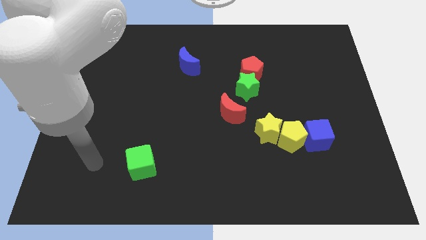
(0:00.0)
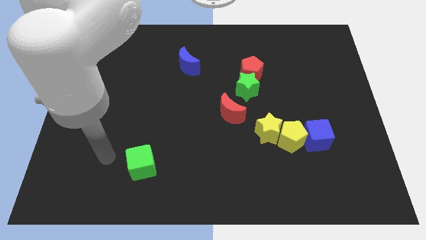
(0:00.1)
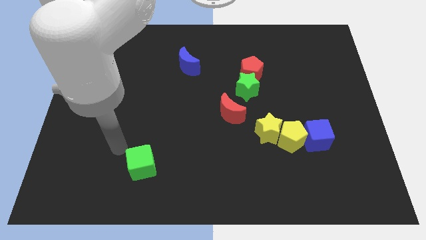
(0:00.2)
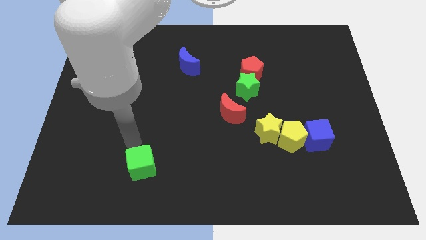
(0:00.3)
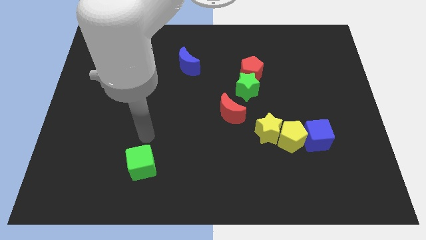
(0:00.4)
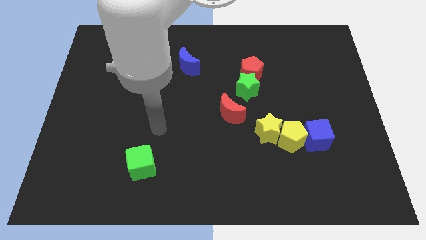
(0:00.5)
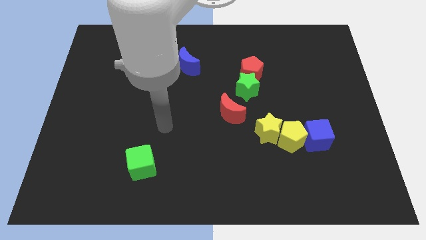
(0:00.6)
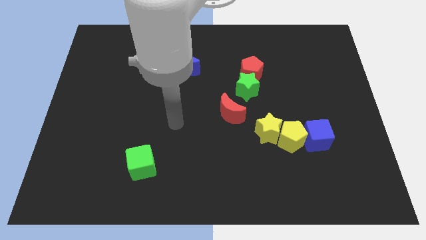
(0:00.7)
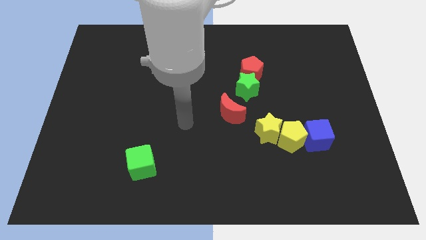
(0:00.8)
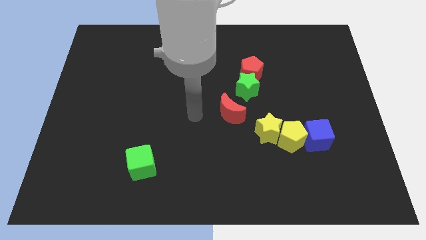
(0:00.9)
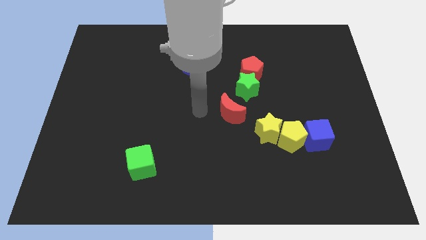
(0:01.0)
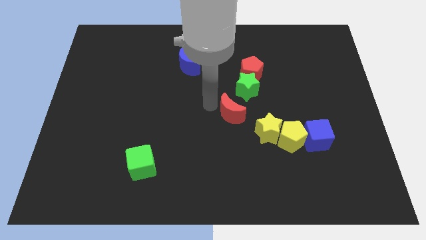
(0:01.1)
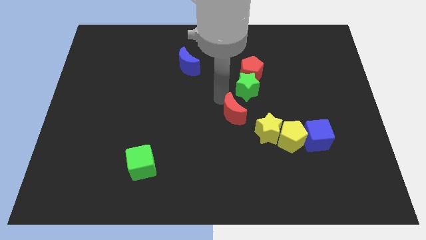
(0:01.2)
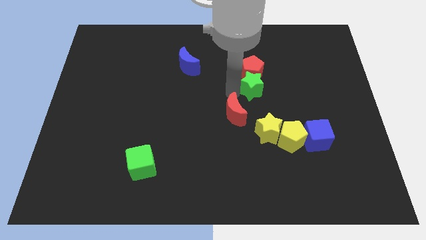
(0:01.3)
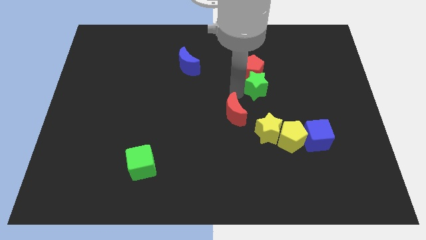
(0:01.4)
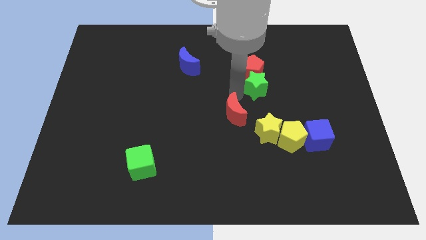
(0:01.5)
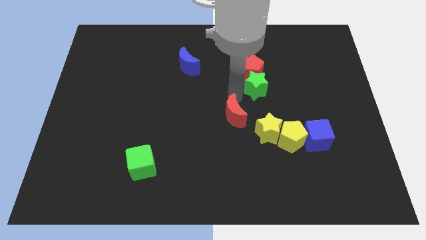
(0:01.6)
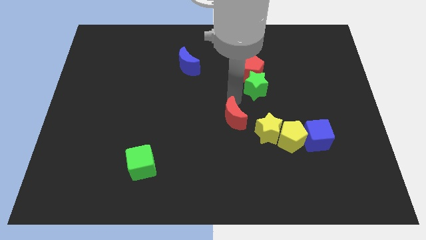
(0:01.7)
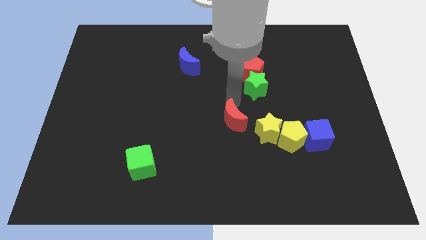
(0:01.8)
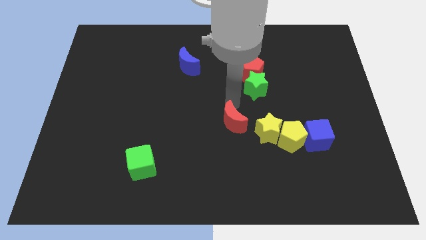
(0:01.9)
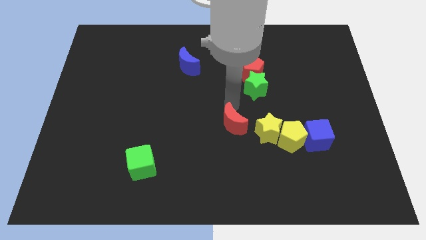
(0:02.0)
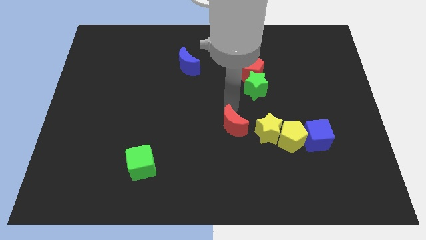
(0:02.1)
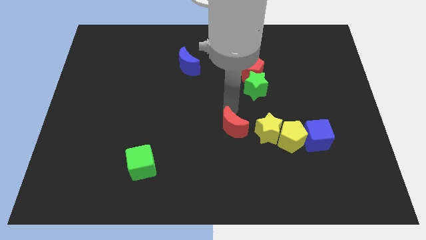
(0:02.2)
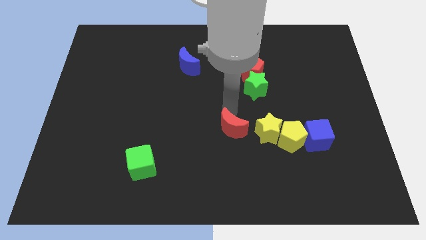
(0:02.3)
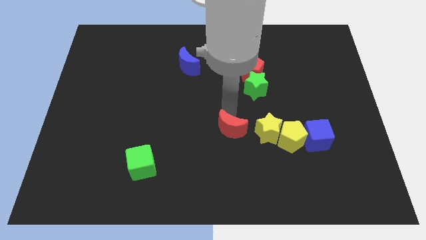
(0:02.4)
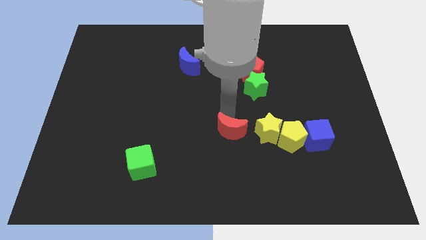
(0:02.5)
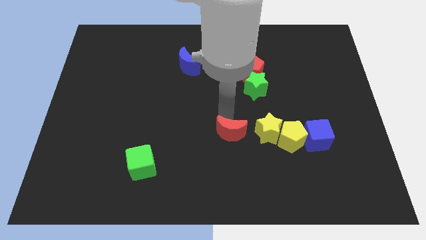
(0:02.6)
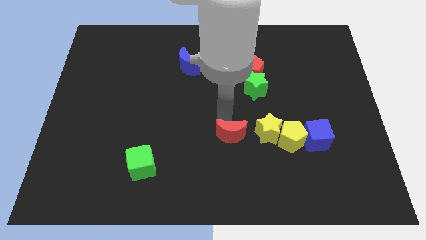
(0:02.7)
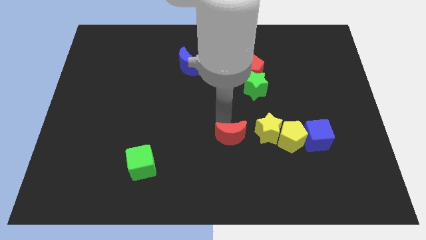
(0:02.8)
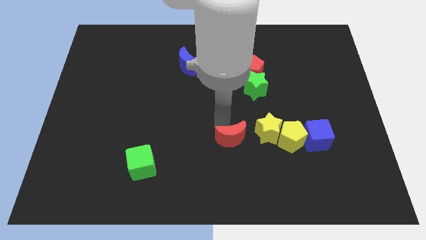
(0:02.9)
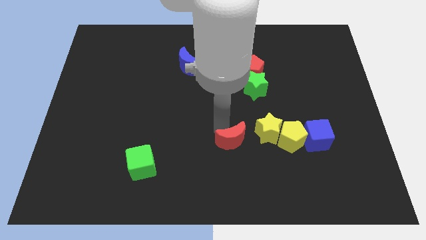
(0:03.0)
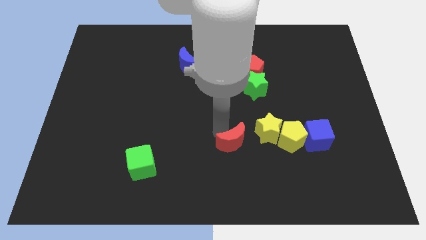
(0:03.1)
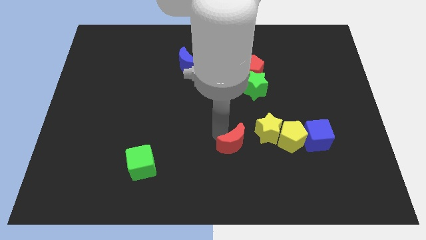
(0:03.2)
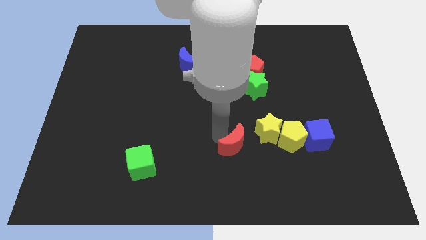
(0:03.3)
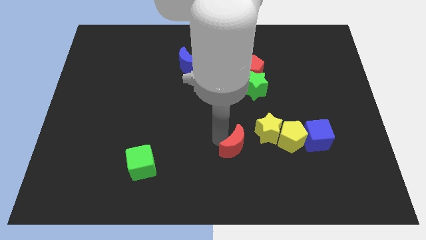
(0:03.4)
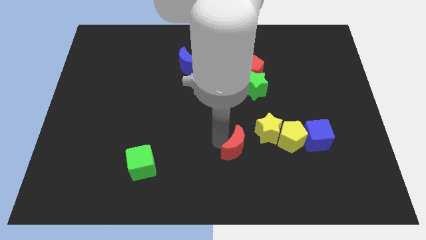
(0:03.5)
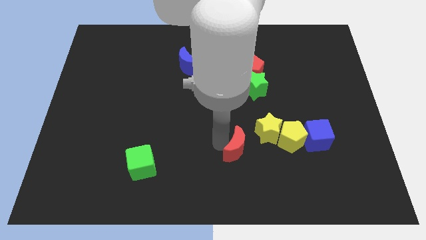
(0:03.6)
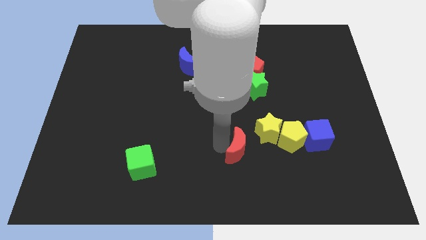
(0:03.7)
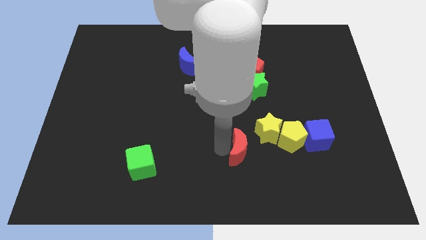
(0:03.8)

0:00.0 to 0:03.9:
push the red moon somewhat down and right

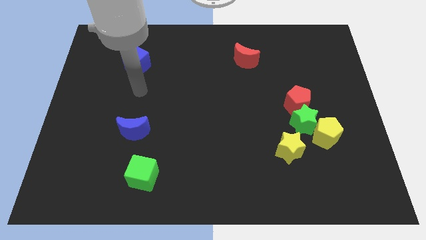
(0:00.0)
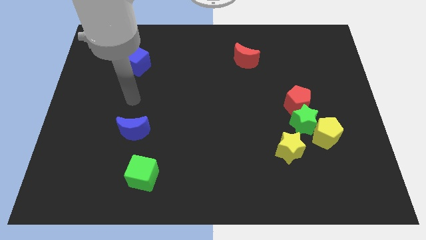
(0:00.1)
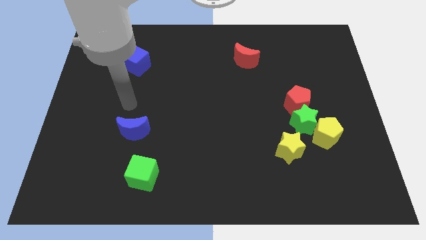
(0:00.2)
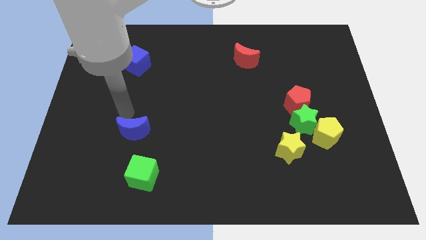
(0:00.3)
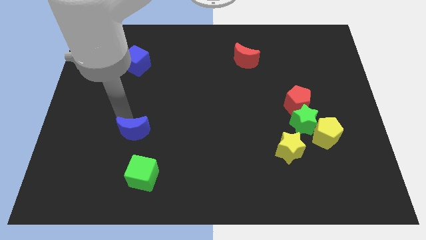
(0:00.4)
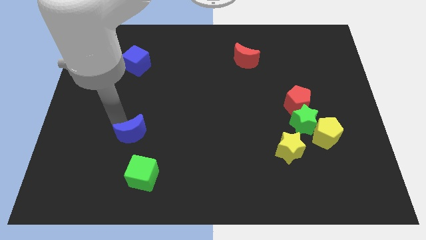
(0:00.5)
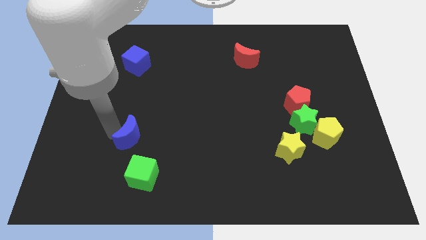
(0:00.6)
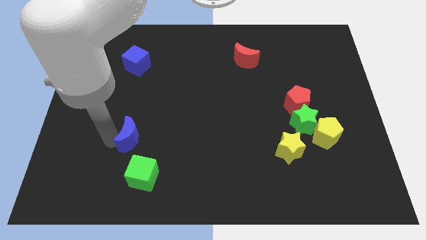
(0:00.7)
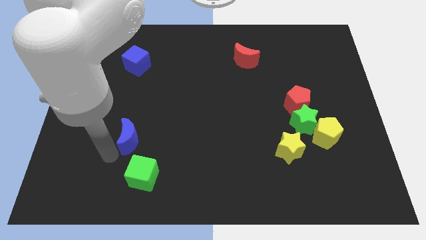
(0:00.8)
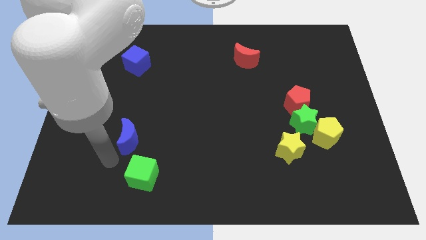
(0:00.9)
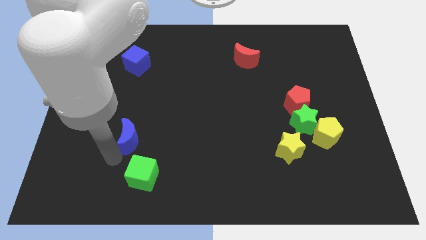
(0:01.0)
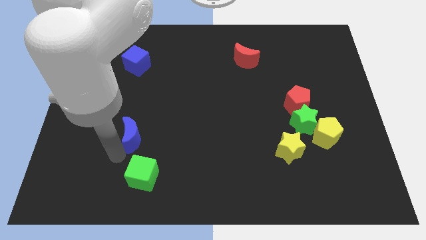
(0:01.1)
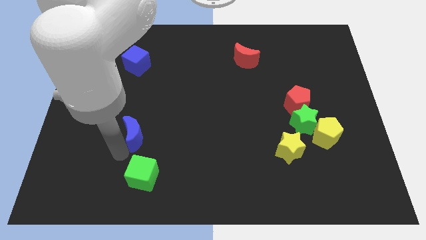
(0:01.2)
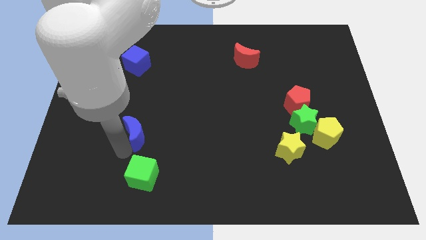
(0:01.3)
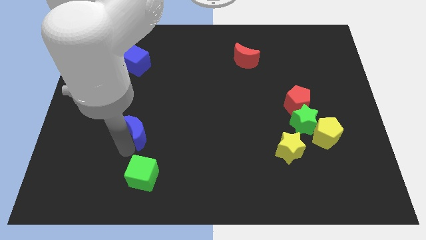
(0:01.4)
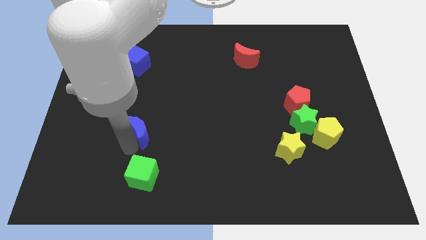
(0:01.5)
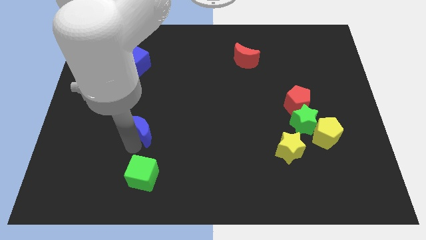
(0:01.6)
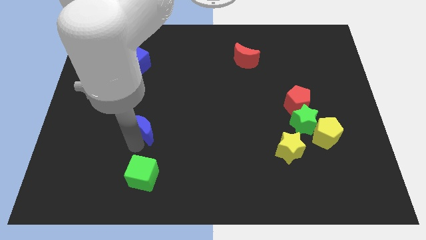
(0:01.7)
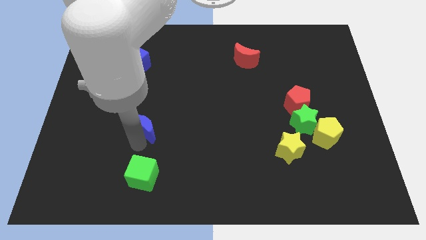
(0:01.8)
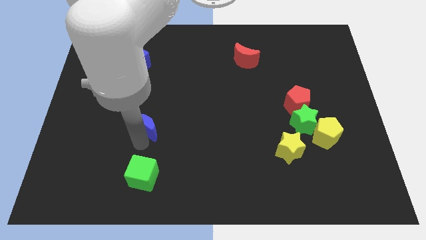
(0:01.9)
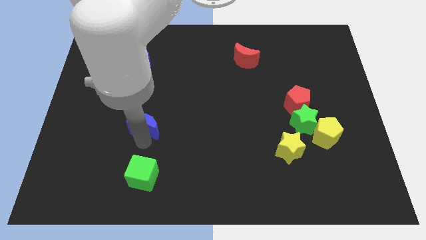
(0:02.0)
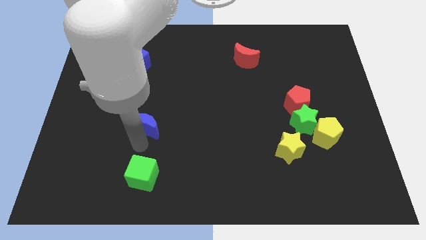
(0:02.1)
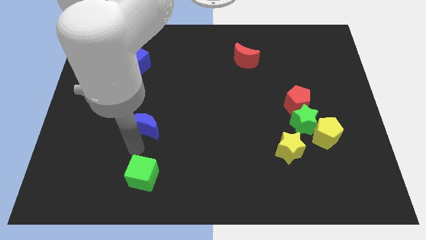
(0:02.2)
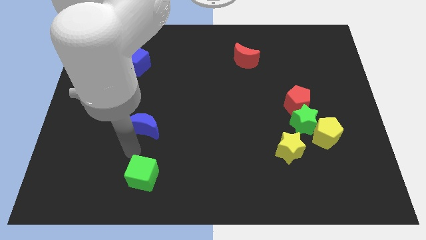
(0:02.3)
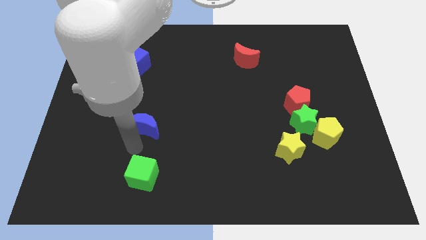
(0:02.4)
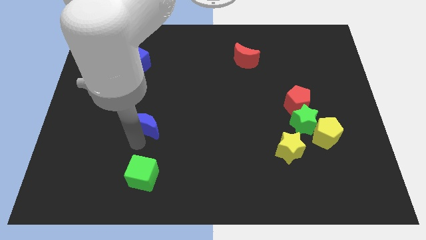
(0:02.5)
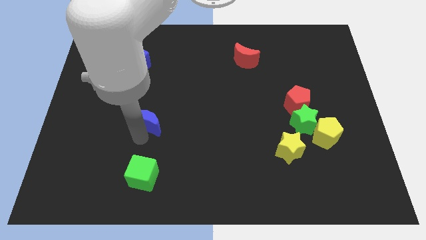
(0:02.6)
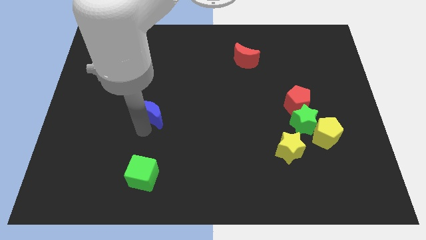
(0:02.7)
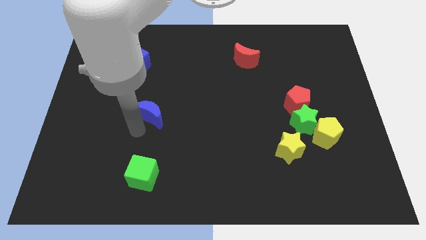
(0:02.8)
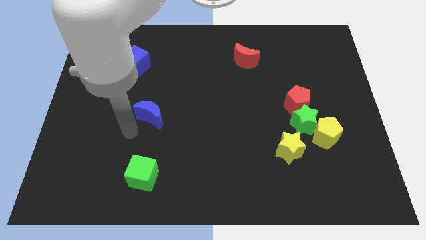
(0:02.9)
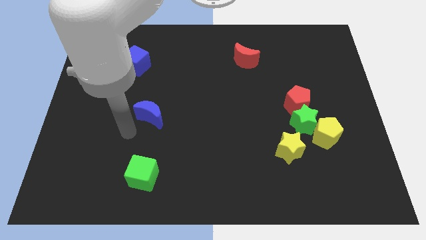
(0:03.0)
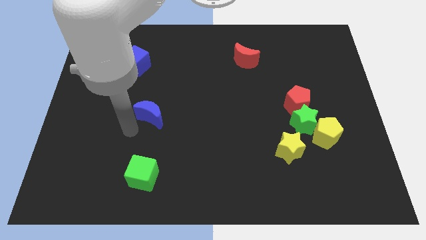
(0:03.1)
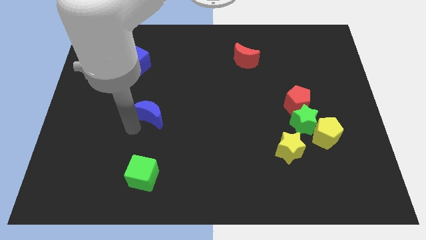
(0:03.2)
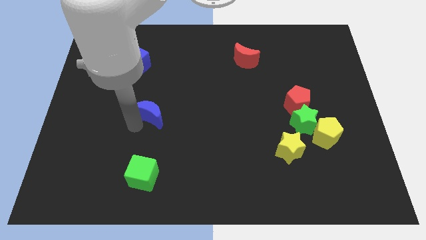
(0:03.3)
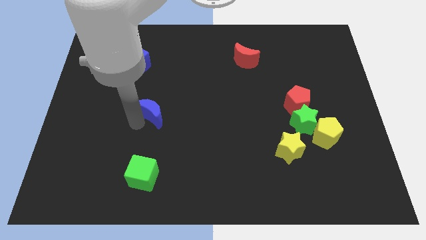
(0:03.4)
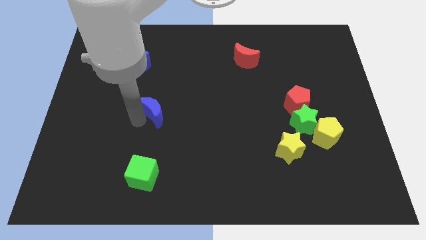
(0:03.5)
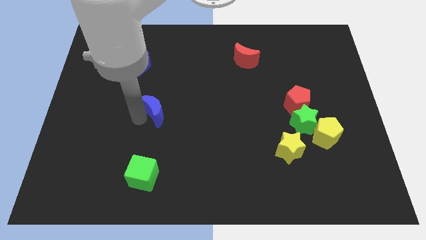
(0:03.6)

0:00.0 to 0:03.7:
slightly slide the blue moon up and then right

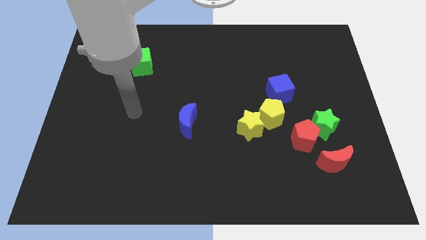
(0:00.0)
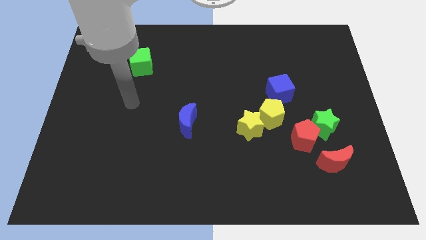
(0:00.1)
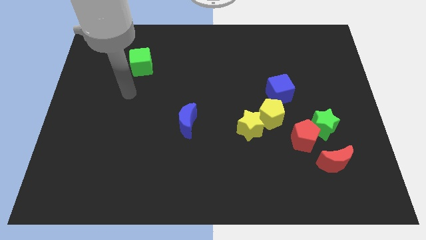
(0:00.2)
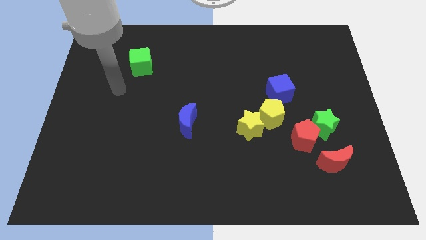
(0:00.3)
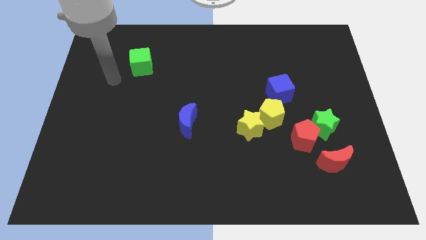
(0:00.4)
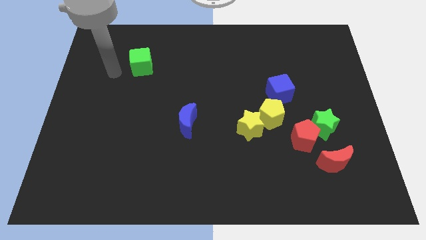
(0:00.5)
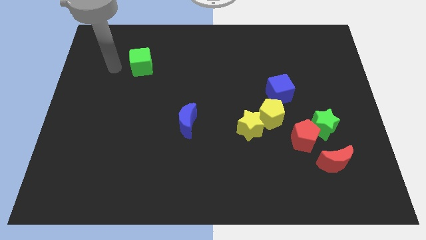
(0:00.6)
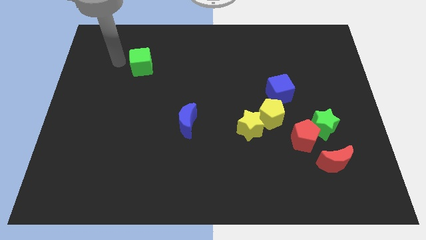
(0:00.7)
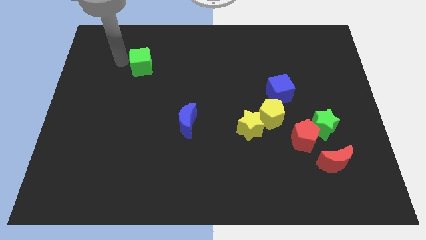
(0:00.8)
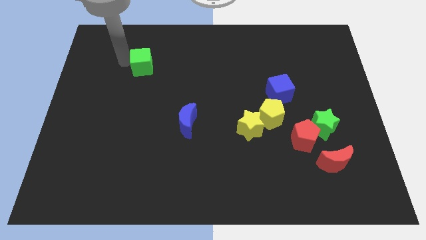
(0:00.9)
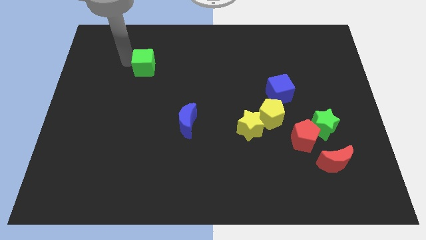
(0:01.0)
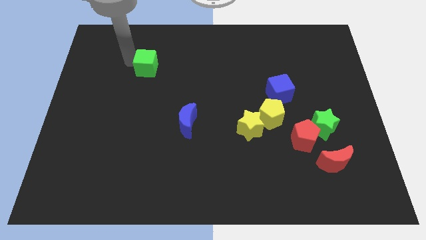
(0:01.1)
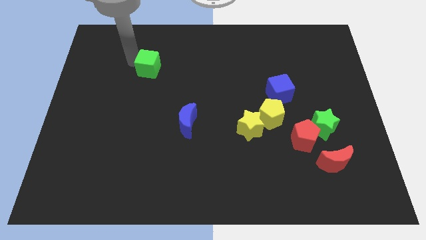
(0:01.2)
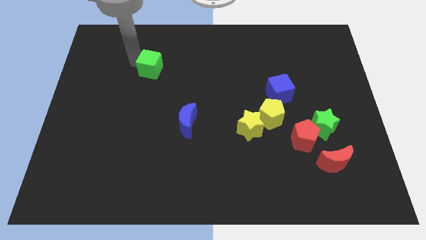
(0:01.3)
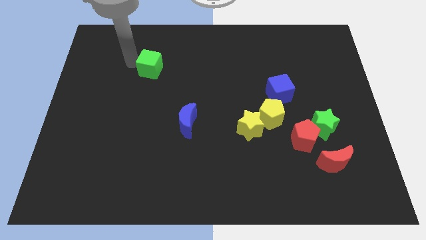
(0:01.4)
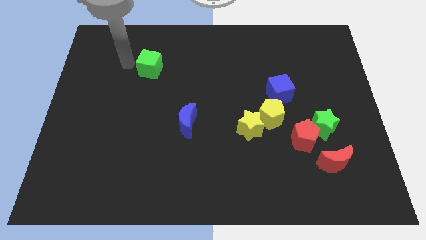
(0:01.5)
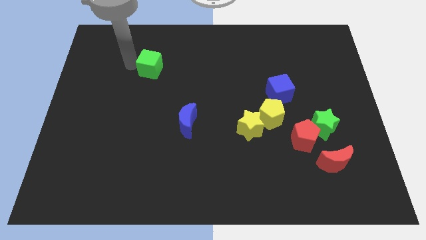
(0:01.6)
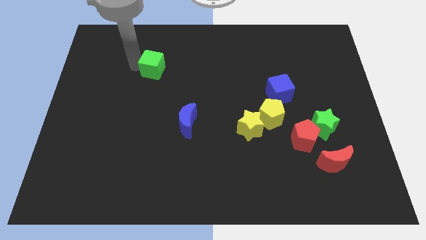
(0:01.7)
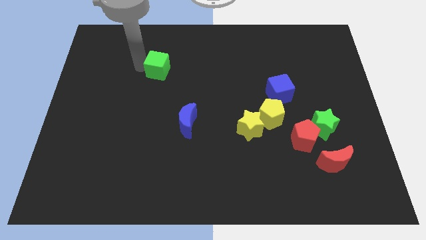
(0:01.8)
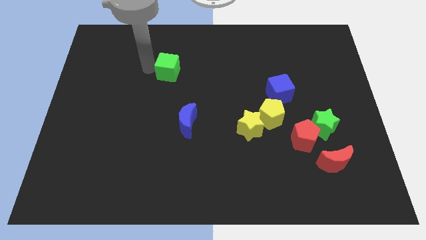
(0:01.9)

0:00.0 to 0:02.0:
push the green cube a bit right
